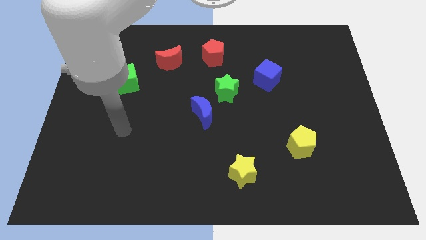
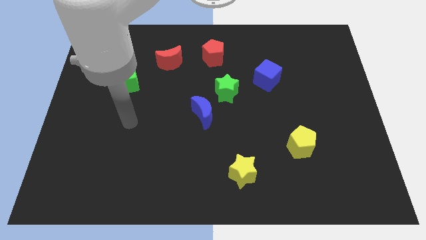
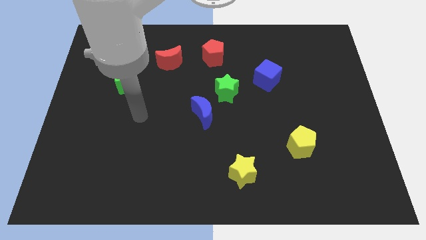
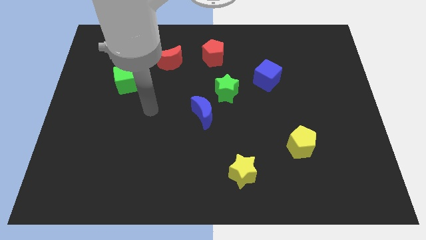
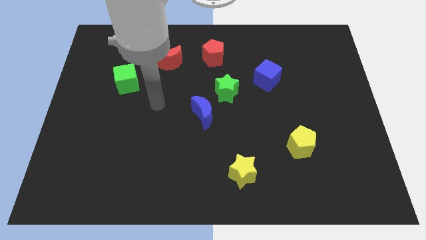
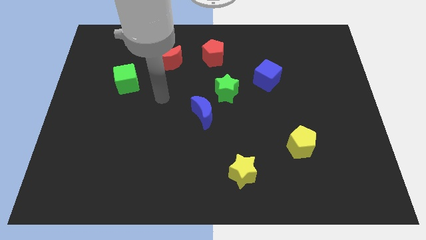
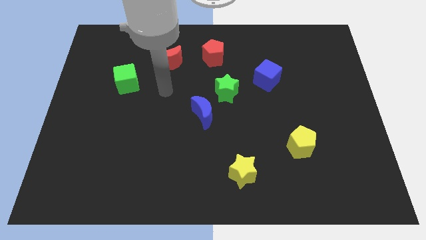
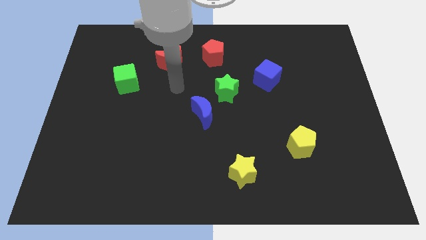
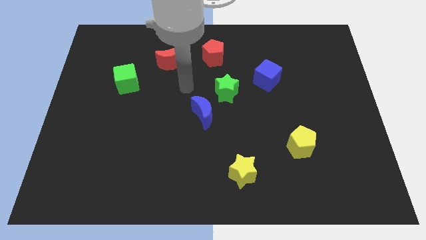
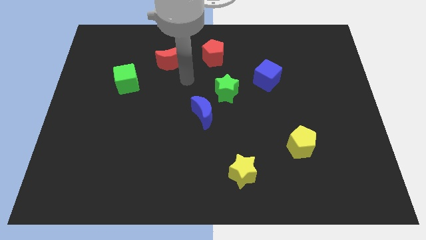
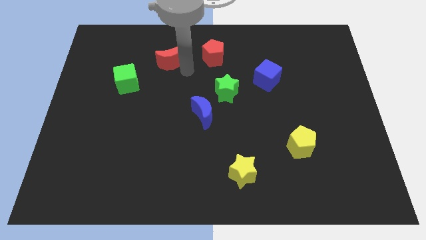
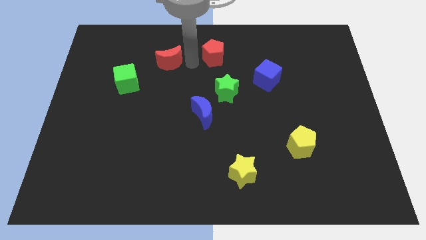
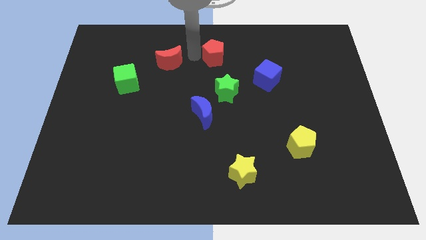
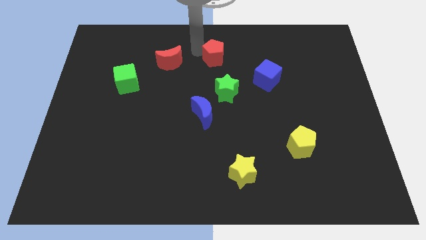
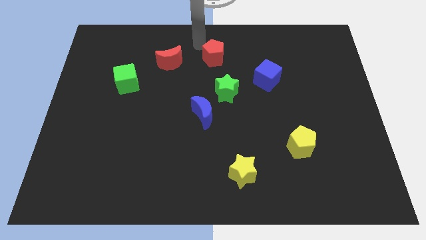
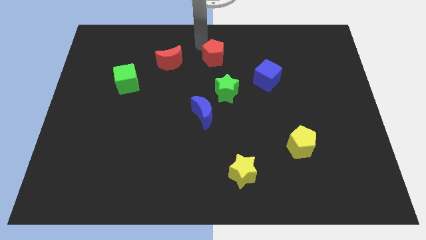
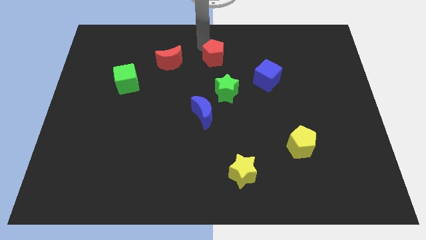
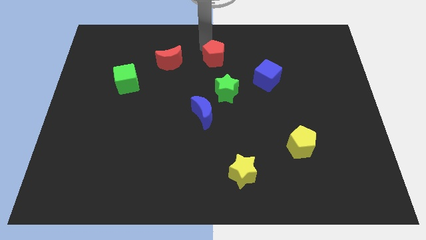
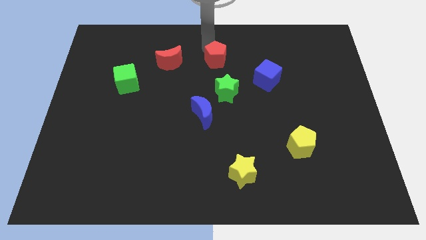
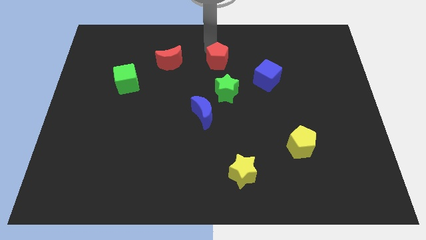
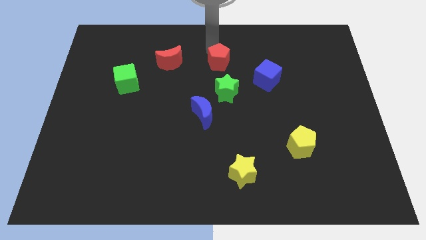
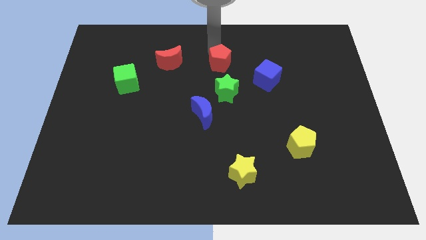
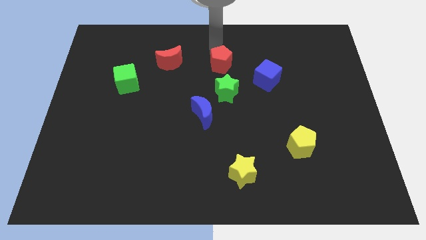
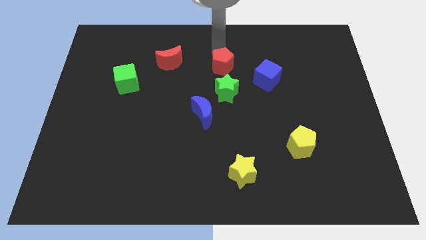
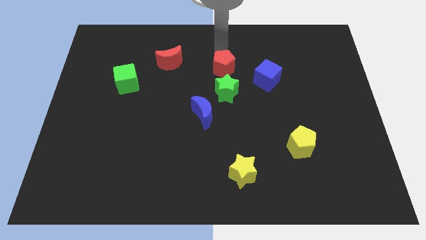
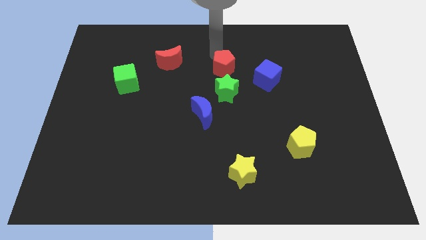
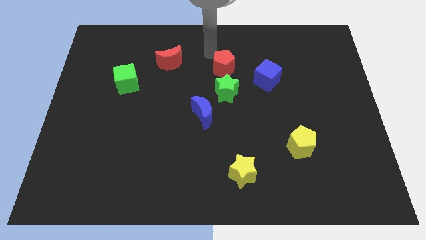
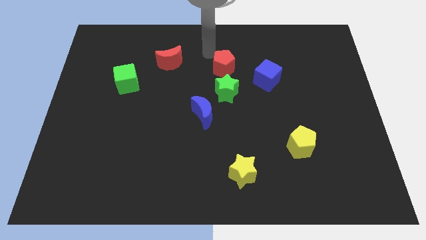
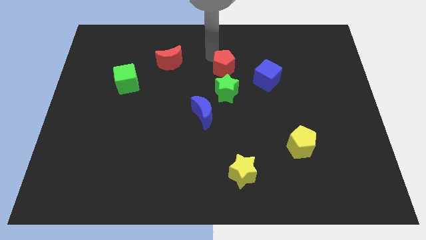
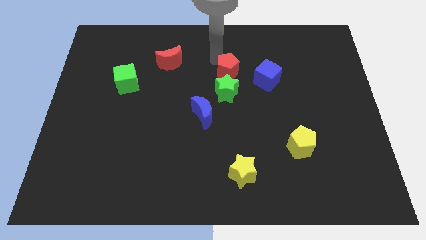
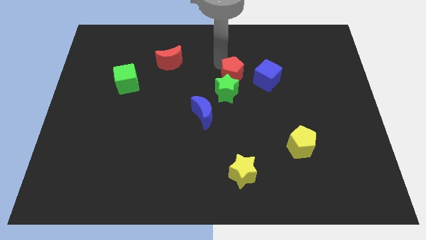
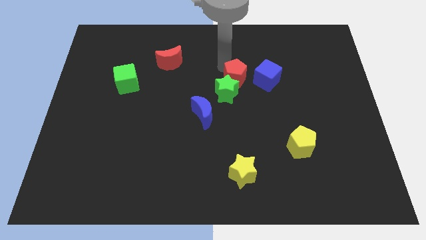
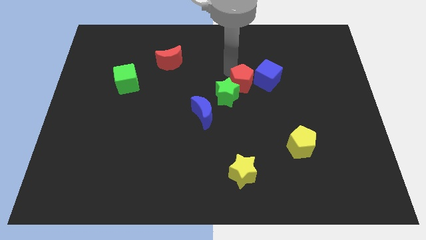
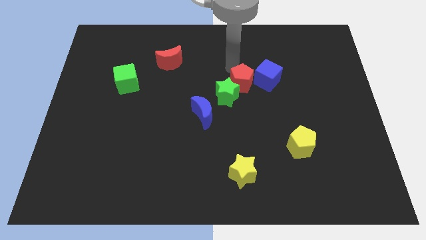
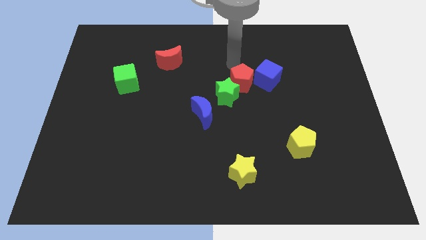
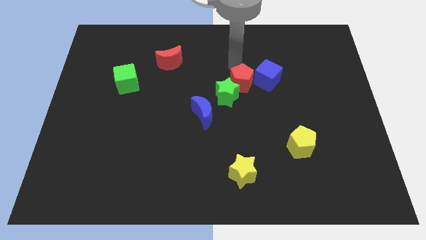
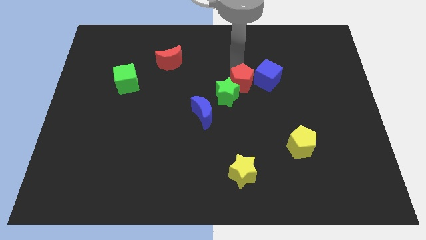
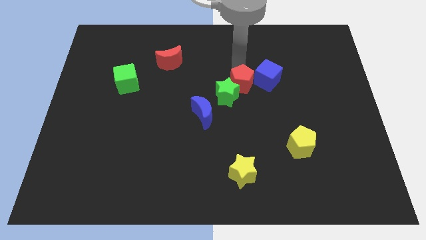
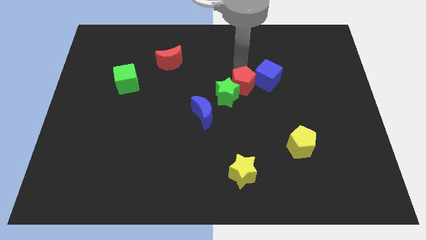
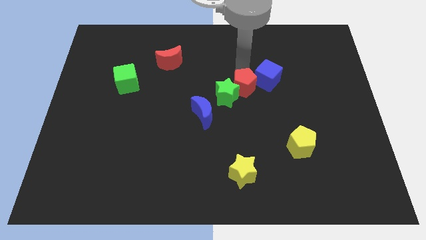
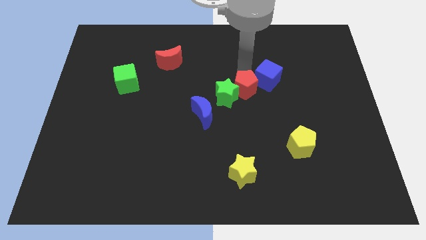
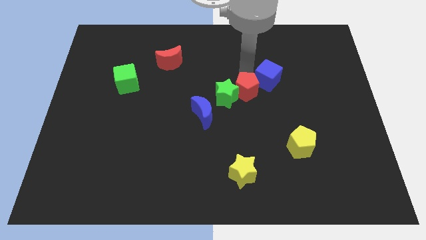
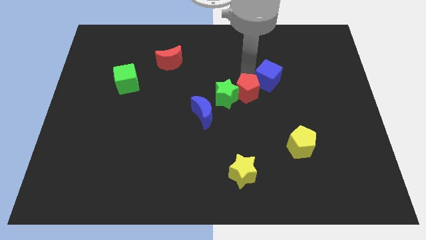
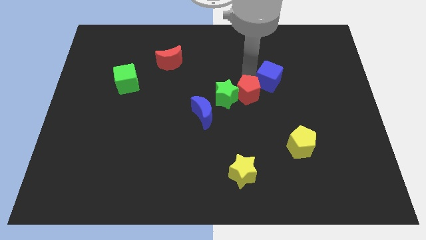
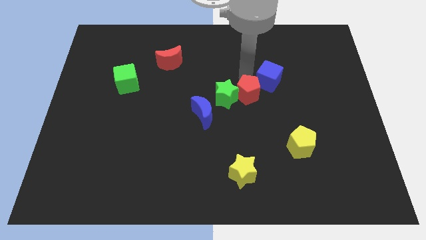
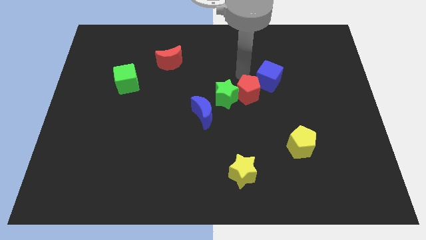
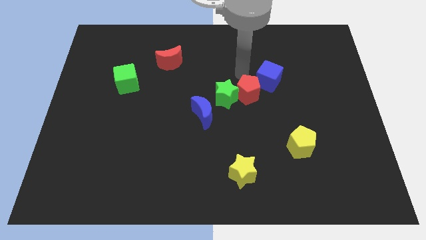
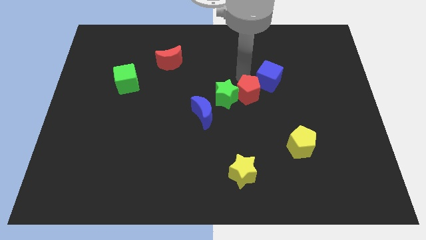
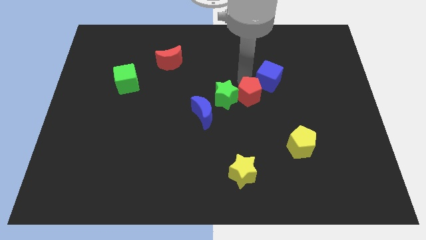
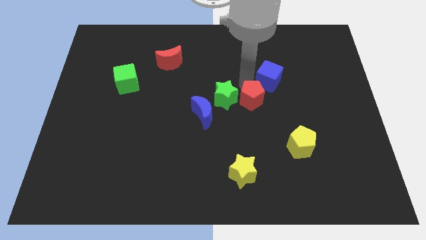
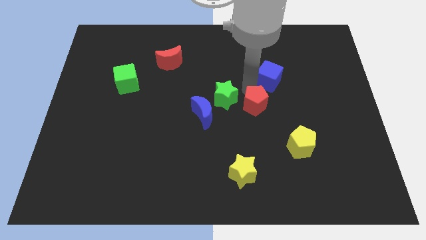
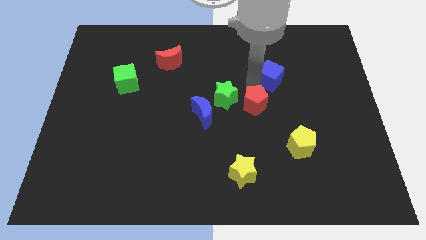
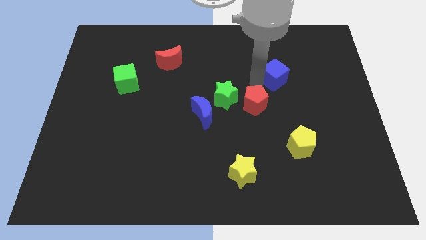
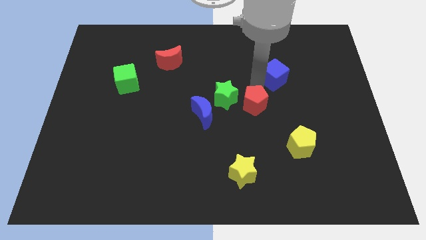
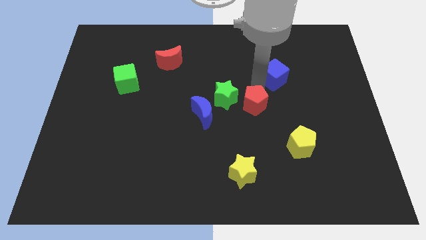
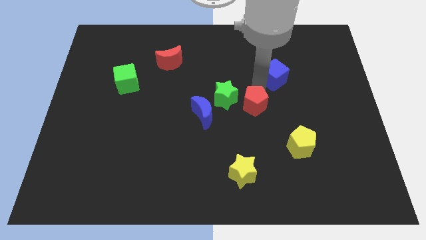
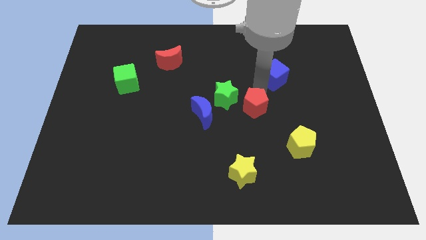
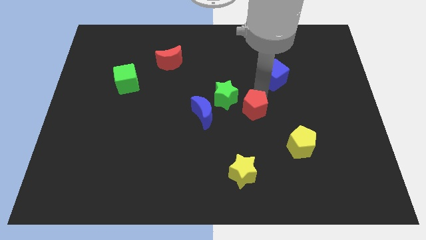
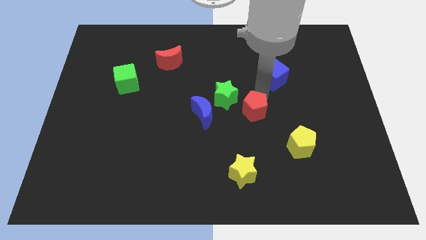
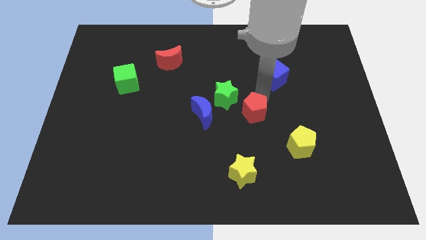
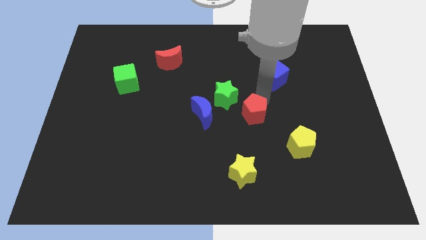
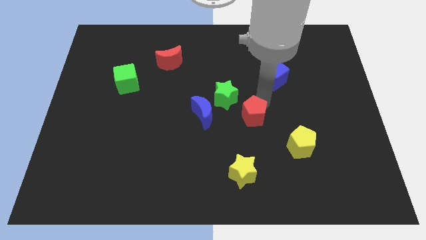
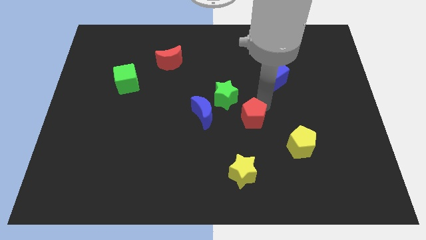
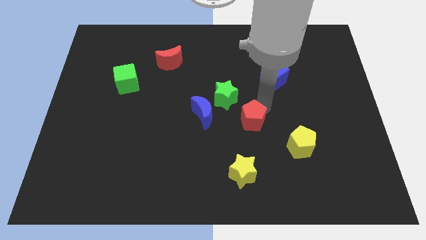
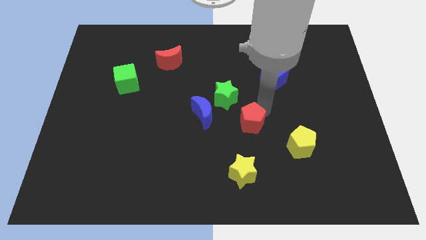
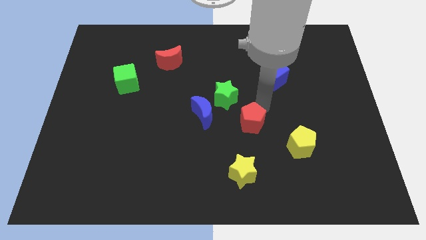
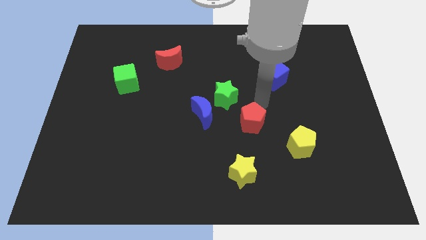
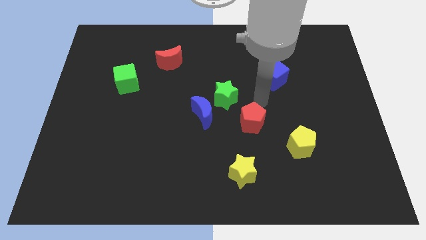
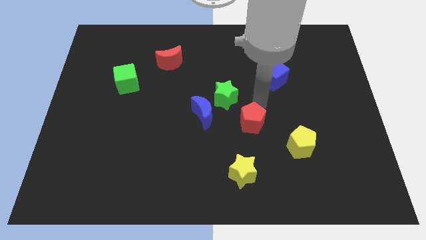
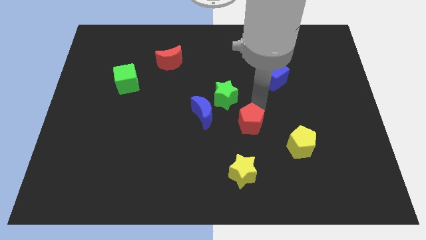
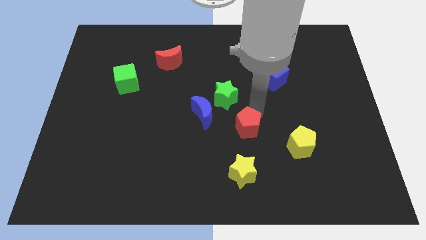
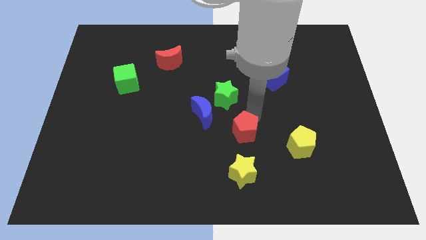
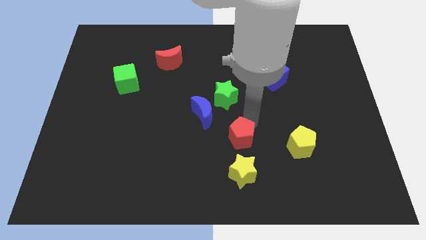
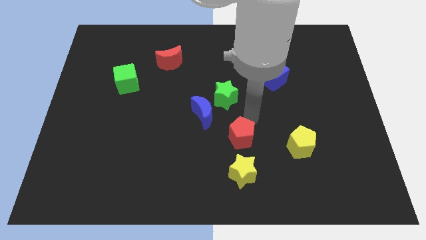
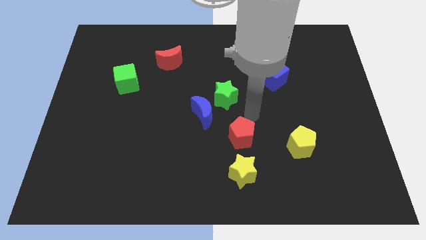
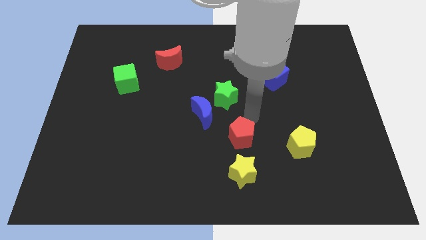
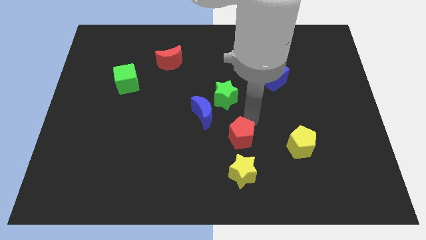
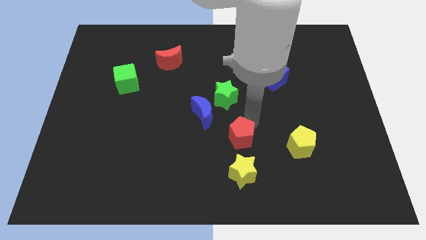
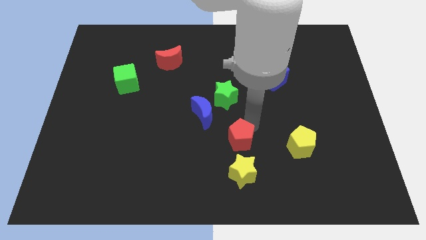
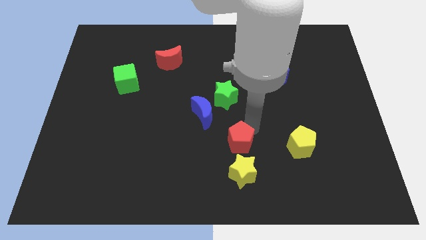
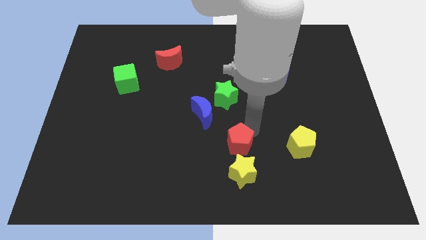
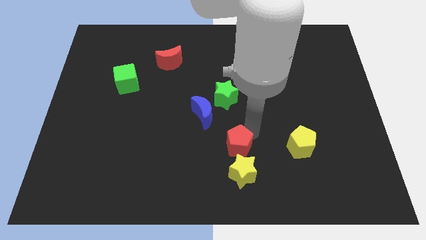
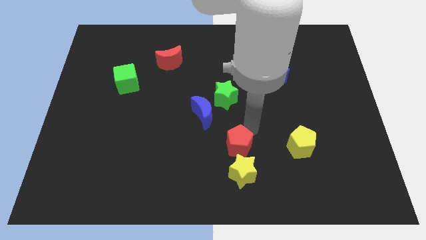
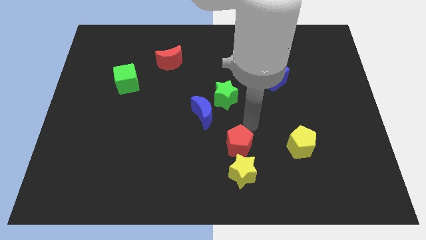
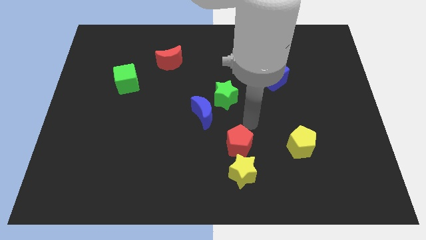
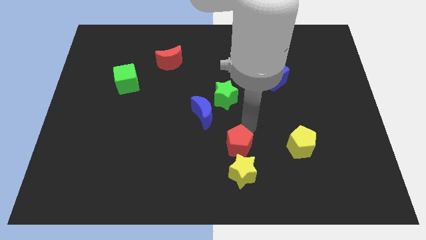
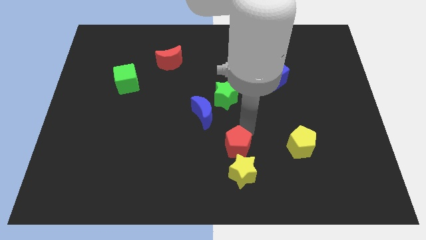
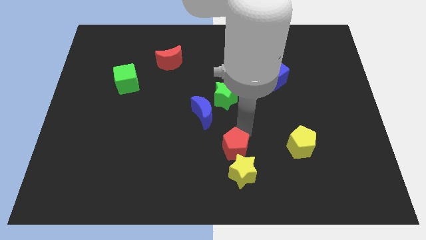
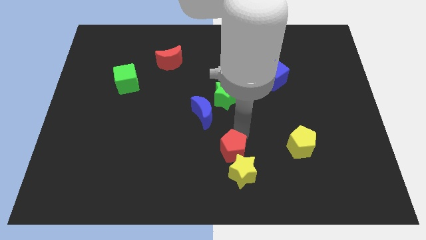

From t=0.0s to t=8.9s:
push the red pentagon to the yellow star
